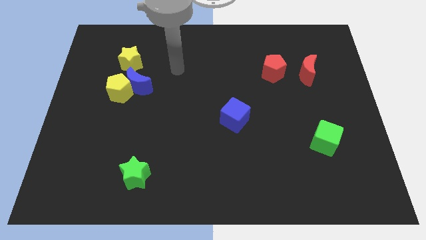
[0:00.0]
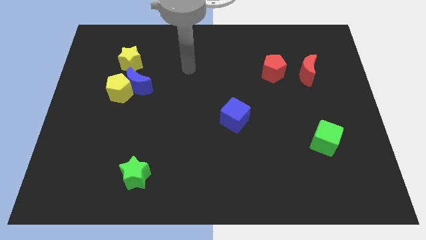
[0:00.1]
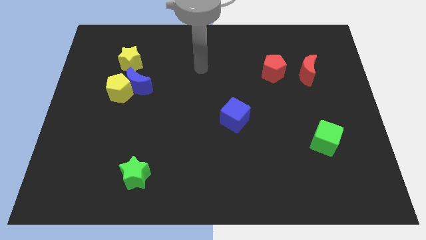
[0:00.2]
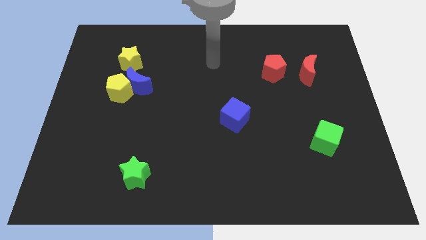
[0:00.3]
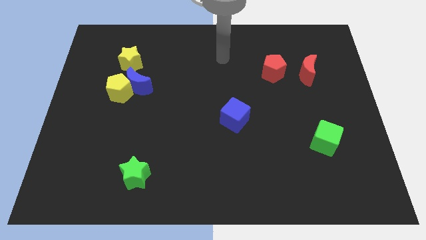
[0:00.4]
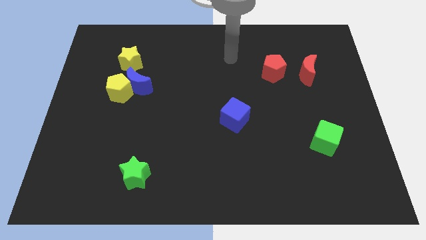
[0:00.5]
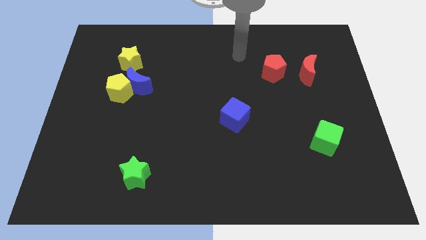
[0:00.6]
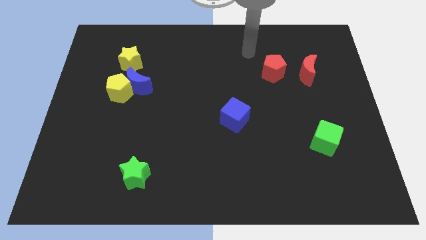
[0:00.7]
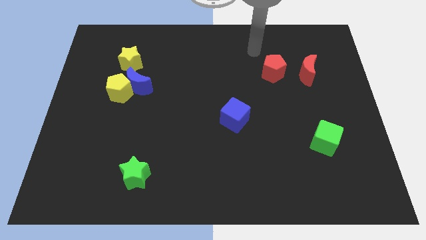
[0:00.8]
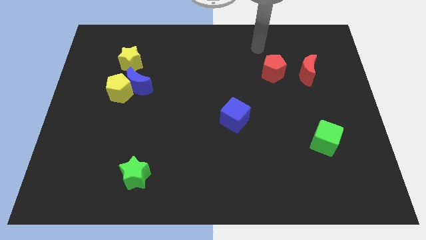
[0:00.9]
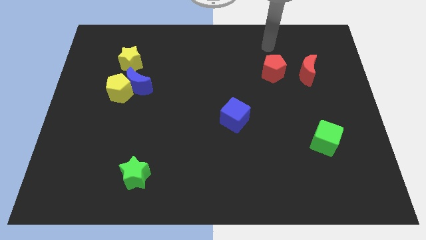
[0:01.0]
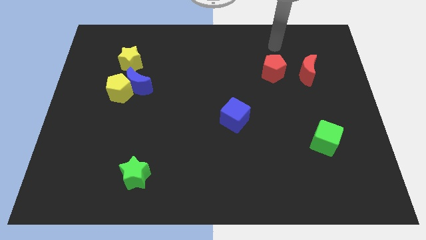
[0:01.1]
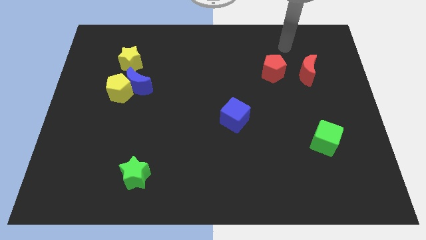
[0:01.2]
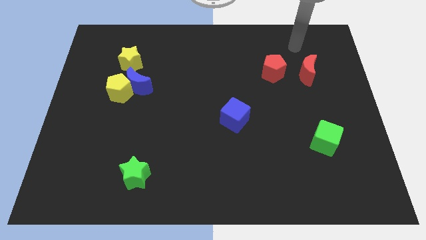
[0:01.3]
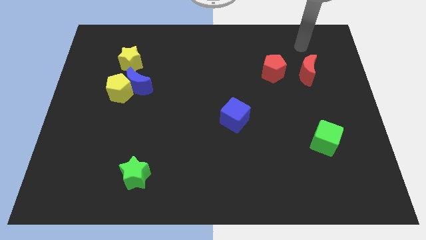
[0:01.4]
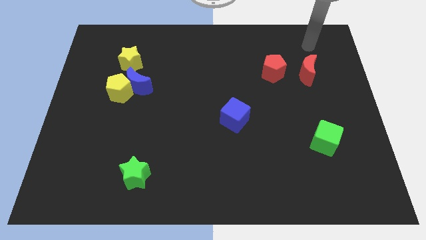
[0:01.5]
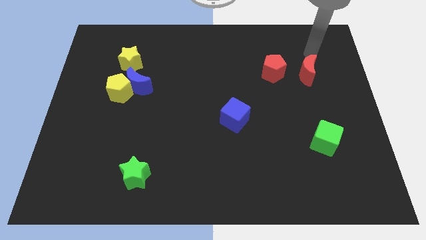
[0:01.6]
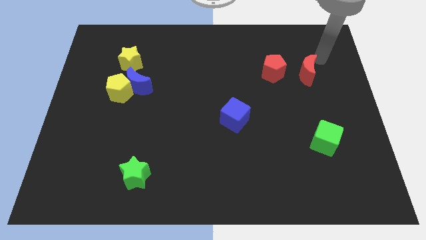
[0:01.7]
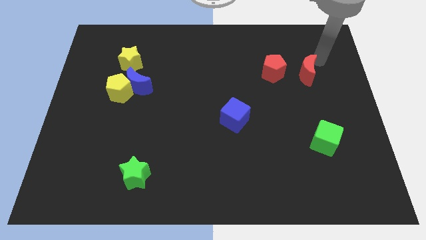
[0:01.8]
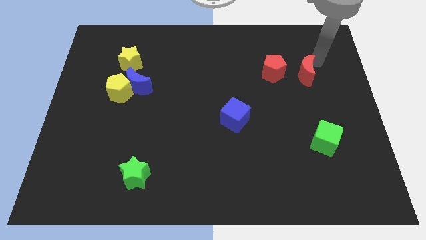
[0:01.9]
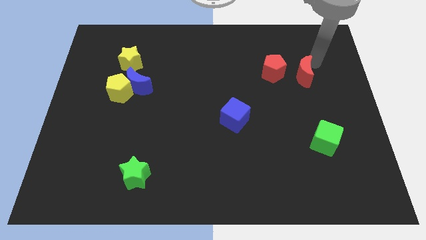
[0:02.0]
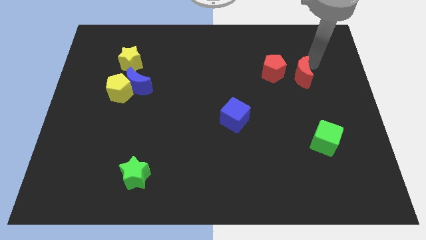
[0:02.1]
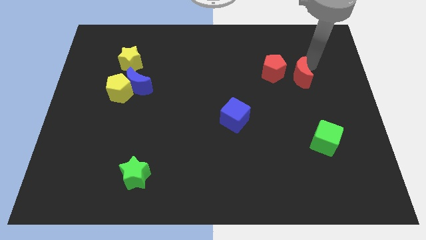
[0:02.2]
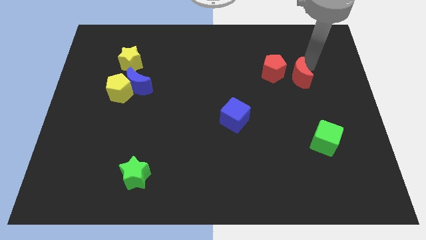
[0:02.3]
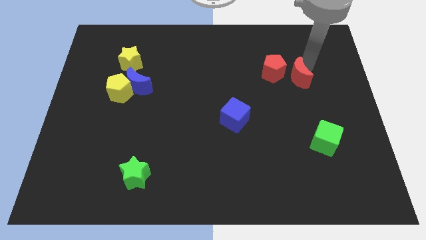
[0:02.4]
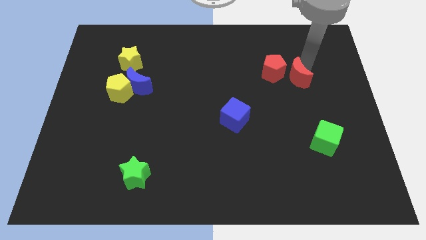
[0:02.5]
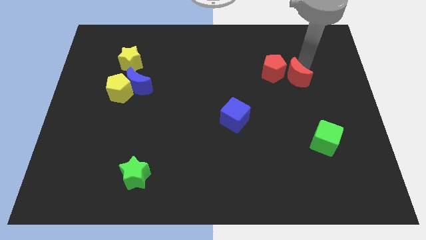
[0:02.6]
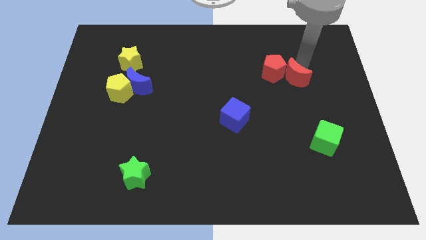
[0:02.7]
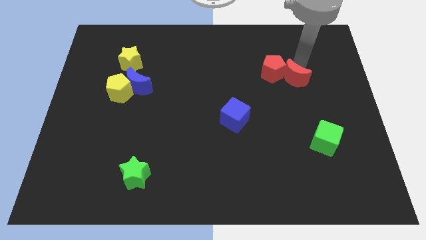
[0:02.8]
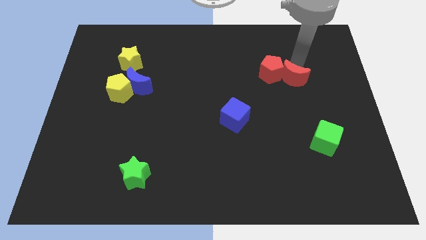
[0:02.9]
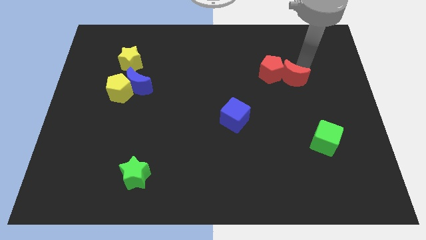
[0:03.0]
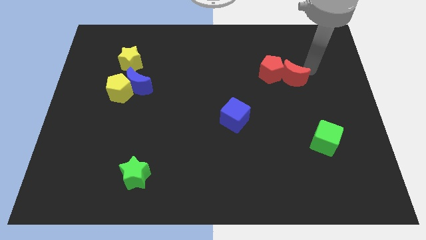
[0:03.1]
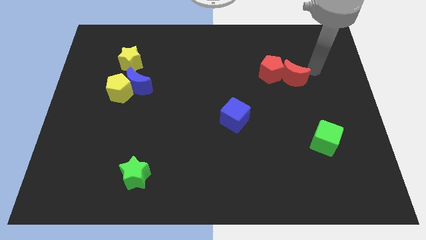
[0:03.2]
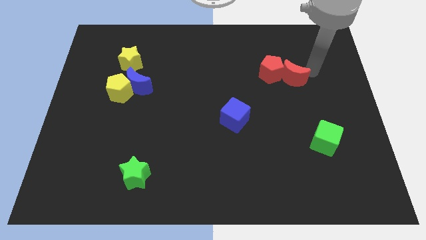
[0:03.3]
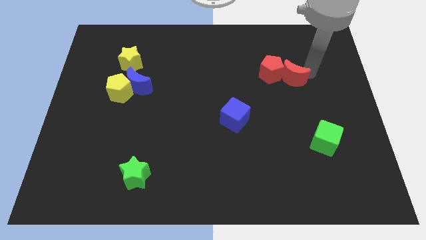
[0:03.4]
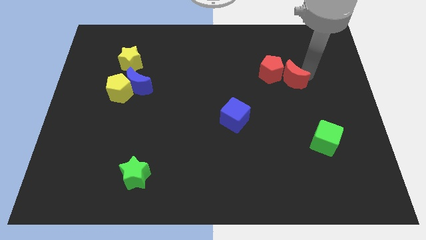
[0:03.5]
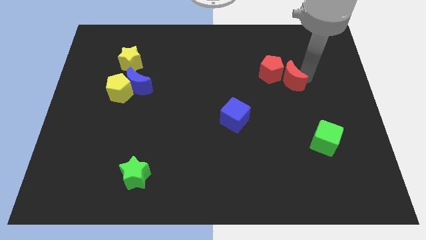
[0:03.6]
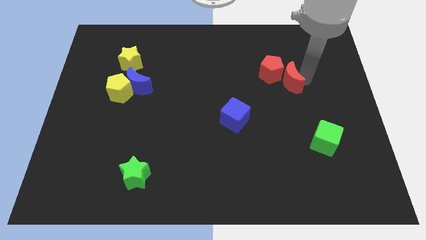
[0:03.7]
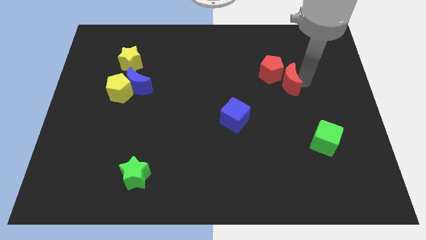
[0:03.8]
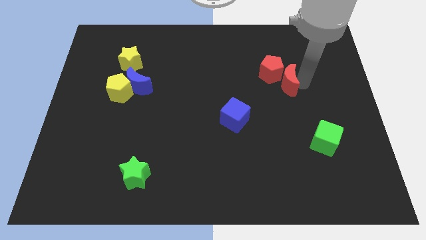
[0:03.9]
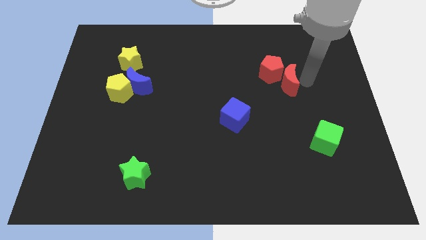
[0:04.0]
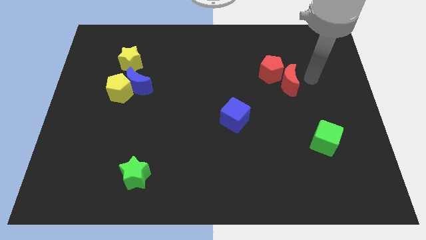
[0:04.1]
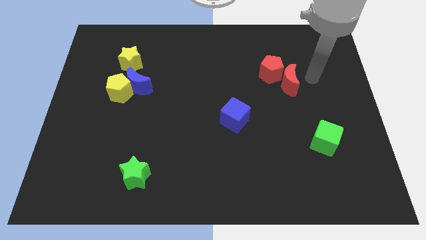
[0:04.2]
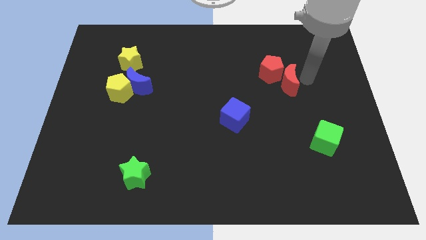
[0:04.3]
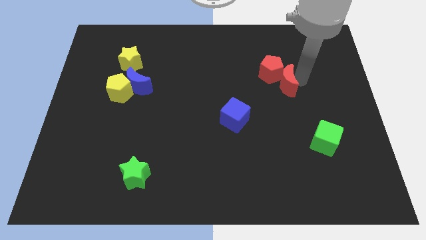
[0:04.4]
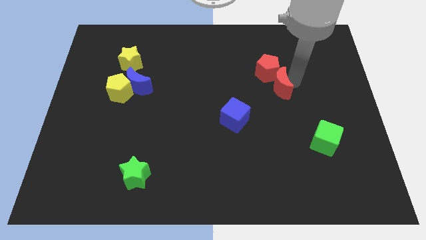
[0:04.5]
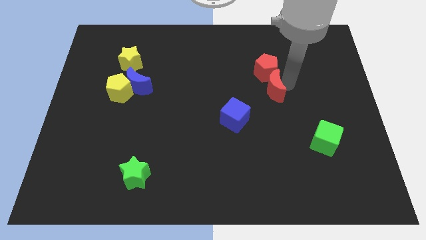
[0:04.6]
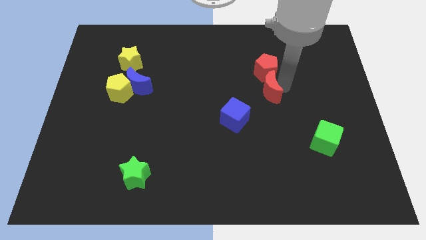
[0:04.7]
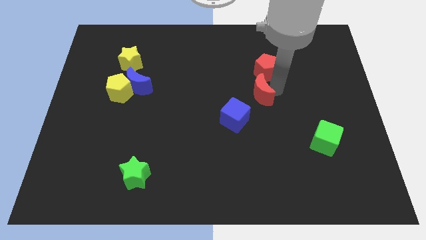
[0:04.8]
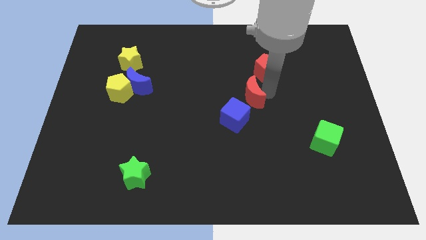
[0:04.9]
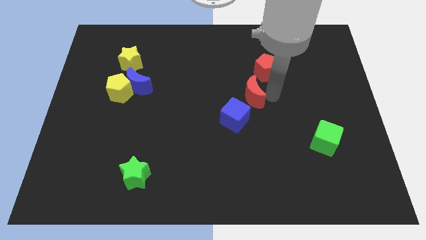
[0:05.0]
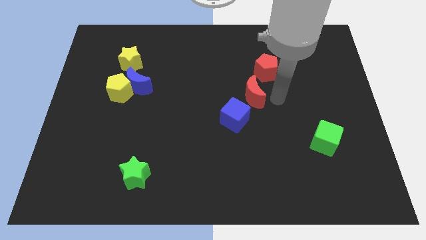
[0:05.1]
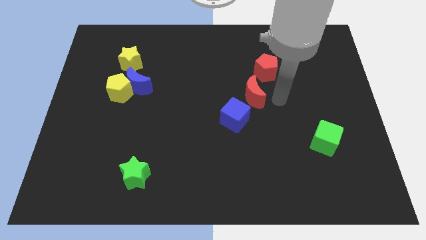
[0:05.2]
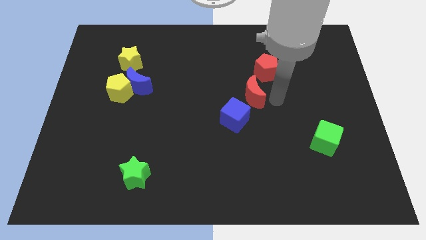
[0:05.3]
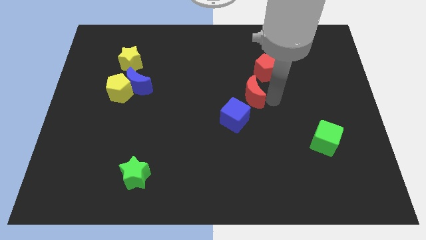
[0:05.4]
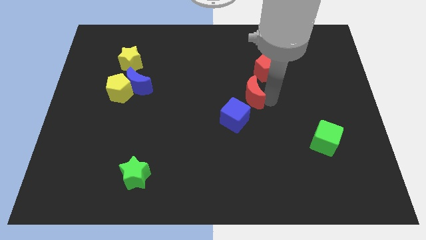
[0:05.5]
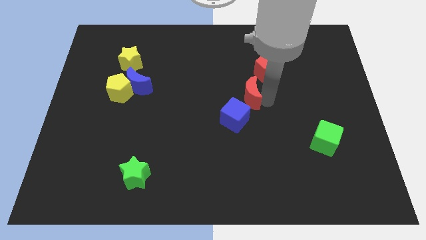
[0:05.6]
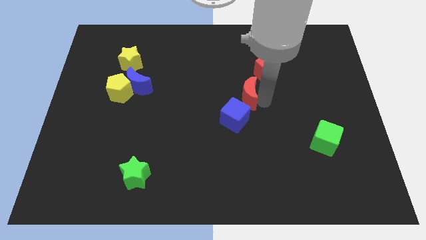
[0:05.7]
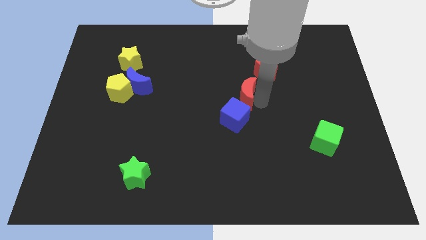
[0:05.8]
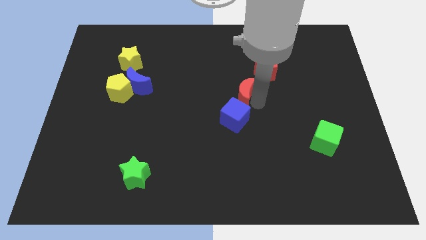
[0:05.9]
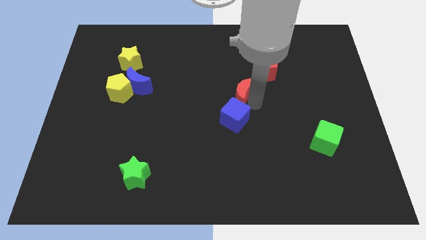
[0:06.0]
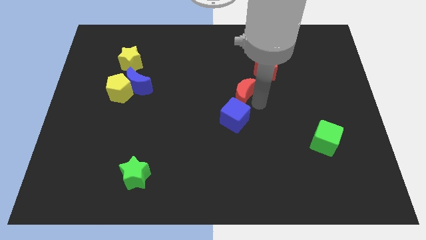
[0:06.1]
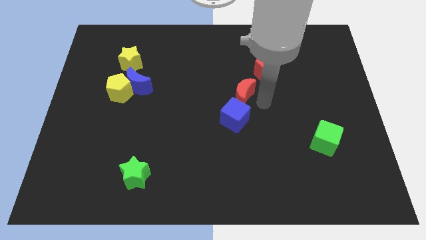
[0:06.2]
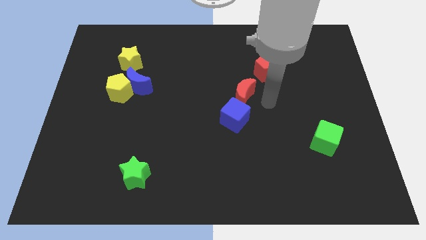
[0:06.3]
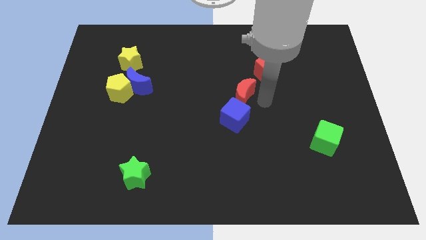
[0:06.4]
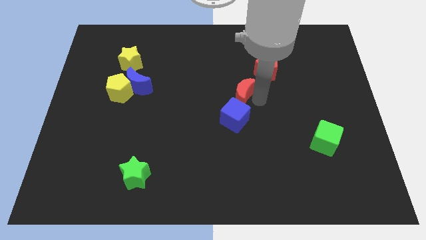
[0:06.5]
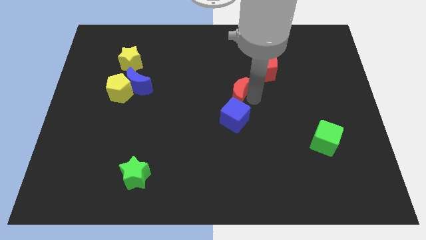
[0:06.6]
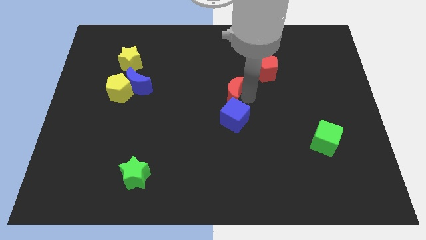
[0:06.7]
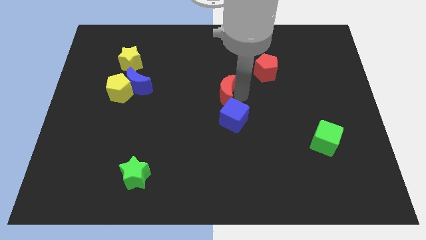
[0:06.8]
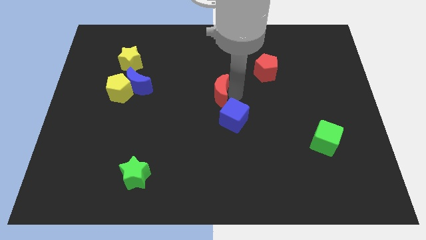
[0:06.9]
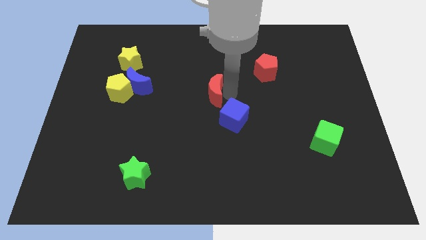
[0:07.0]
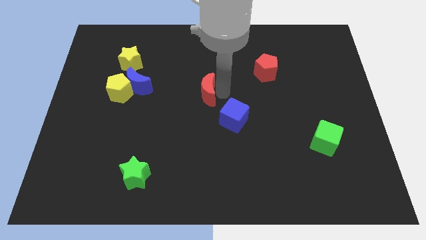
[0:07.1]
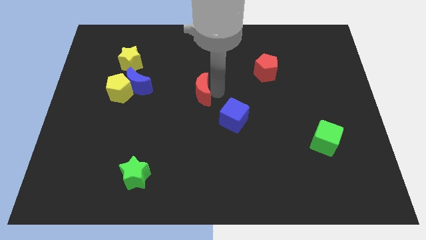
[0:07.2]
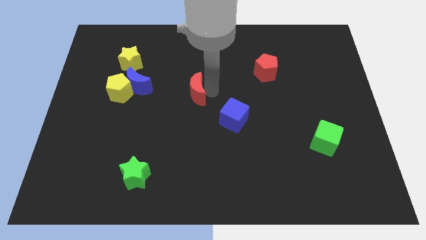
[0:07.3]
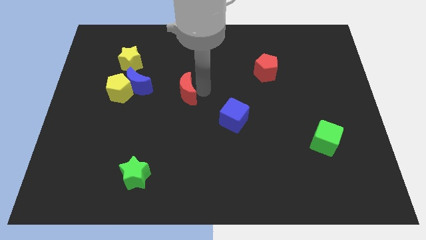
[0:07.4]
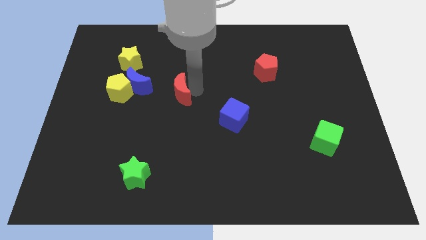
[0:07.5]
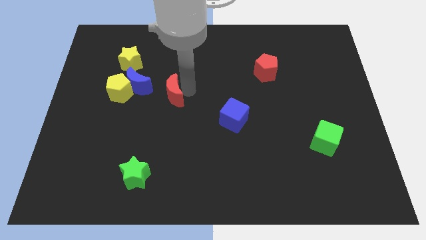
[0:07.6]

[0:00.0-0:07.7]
move the red moon to the bottom right side of the blue moon

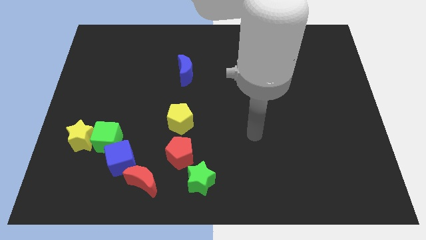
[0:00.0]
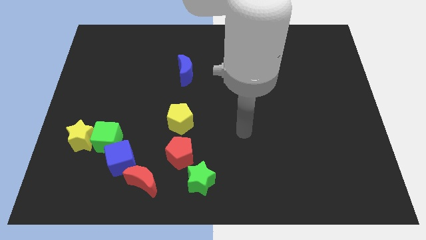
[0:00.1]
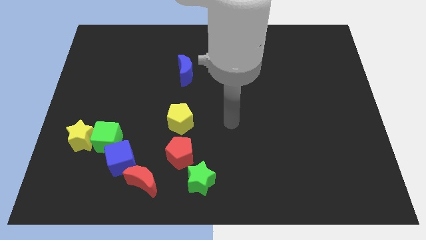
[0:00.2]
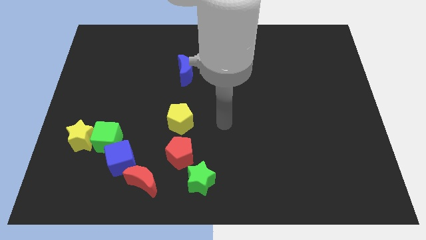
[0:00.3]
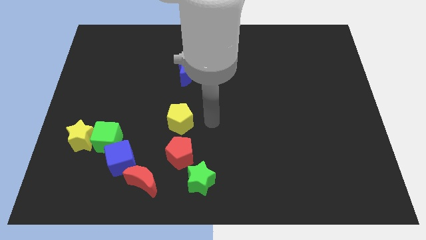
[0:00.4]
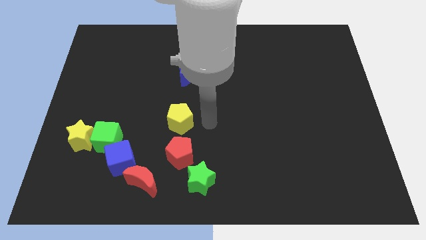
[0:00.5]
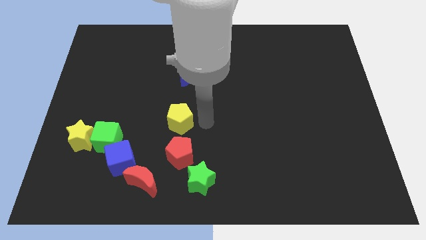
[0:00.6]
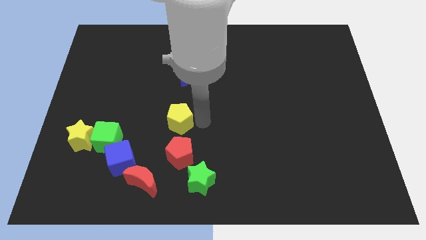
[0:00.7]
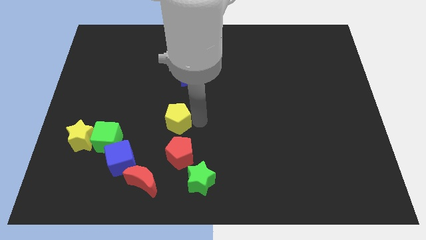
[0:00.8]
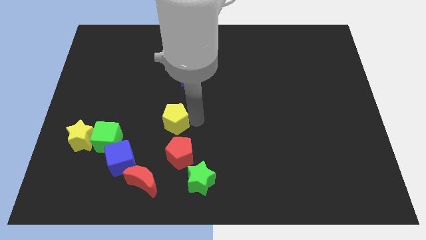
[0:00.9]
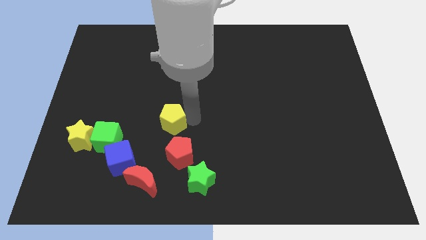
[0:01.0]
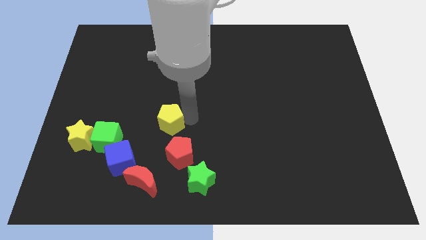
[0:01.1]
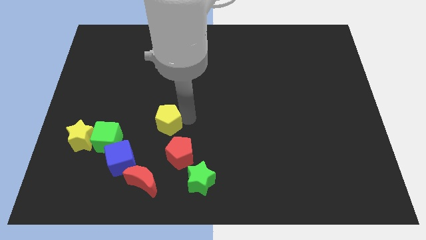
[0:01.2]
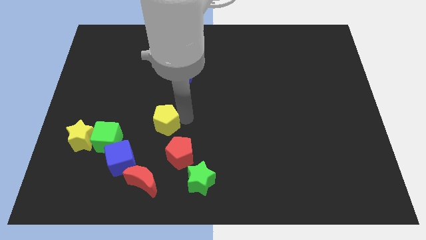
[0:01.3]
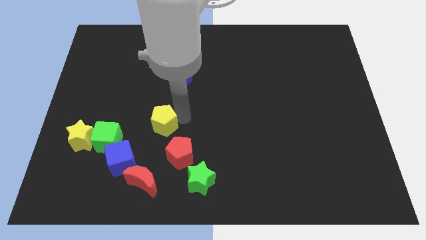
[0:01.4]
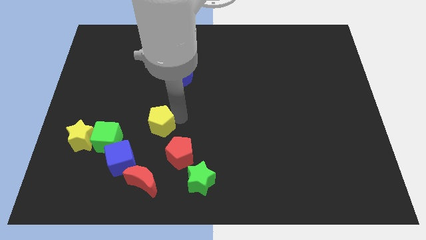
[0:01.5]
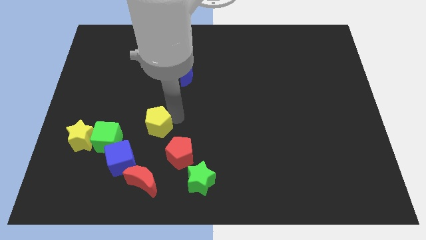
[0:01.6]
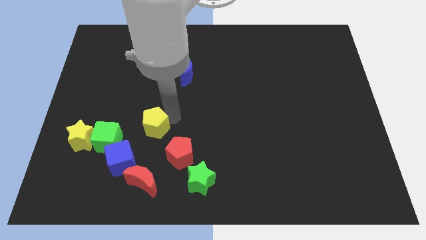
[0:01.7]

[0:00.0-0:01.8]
push the yellow pentagon to the top right side of the green cube
